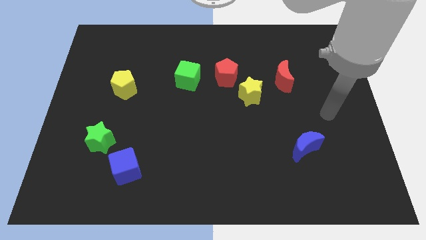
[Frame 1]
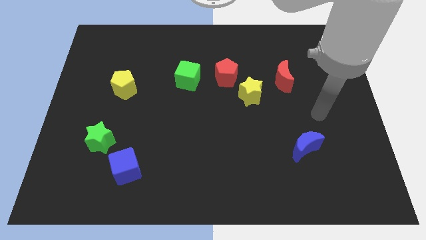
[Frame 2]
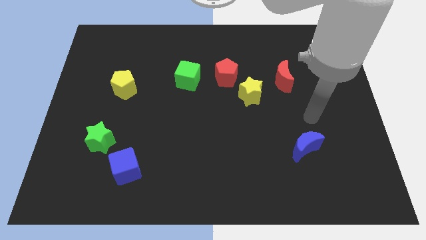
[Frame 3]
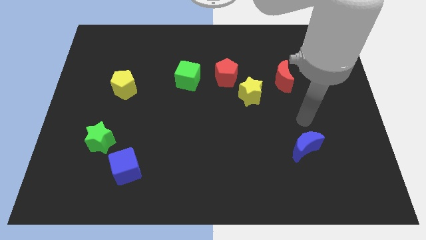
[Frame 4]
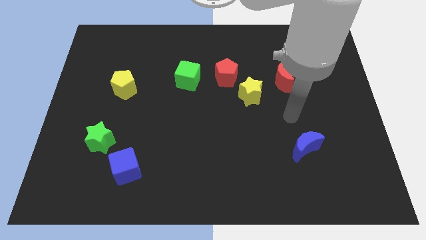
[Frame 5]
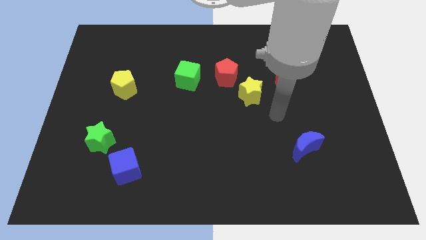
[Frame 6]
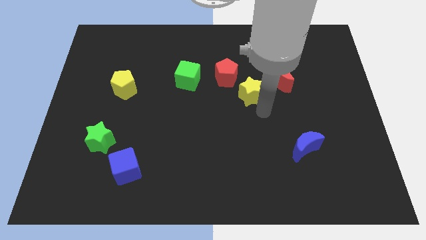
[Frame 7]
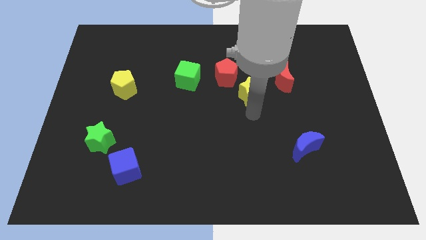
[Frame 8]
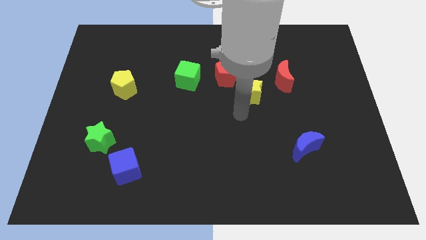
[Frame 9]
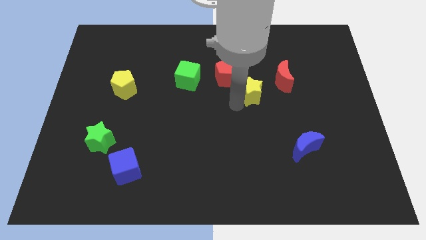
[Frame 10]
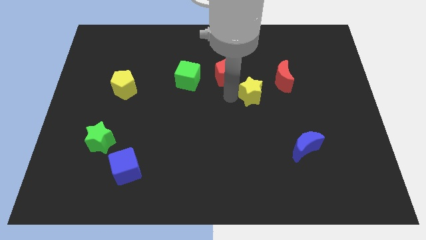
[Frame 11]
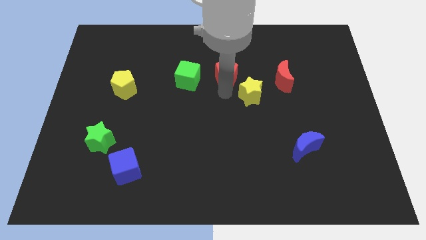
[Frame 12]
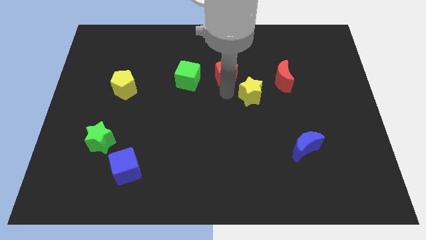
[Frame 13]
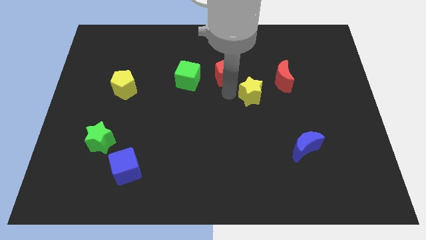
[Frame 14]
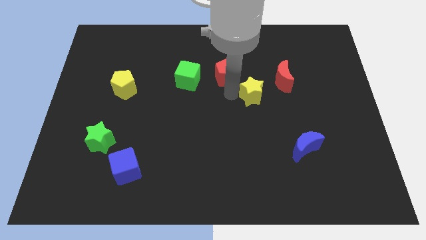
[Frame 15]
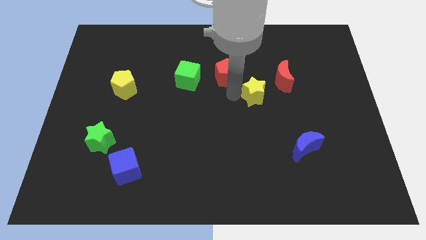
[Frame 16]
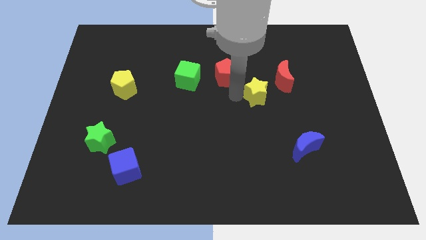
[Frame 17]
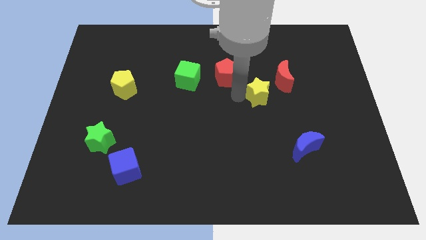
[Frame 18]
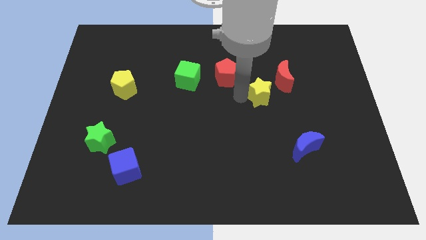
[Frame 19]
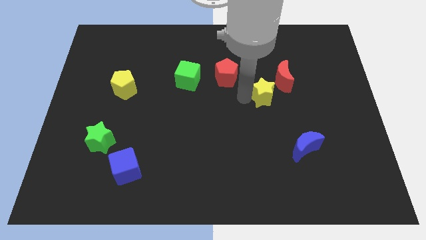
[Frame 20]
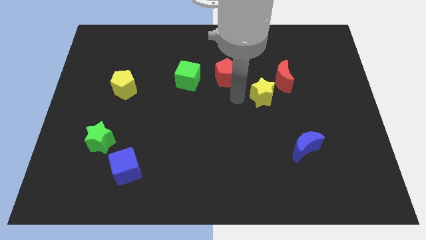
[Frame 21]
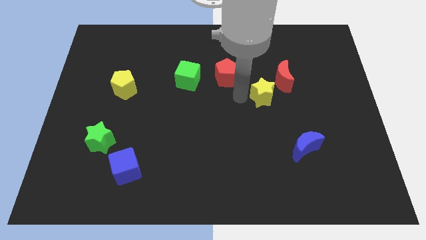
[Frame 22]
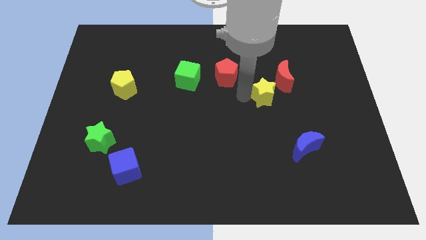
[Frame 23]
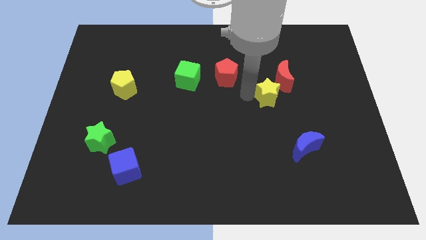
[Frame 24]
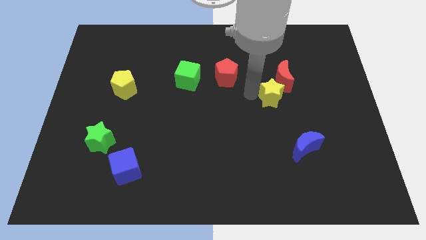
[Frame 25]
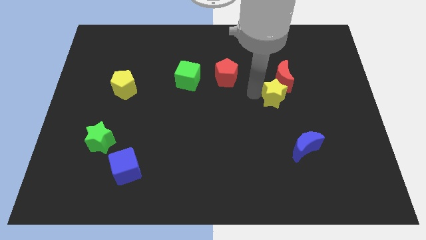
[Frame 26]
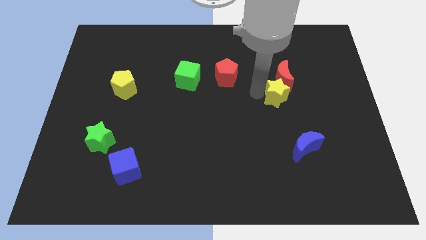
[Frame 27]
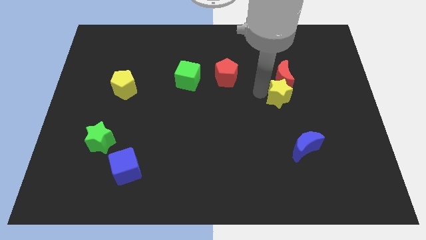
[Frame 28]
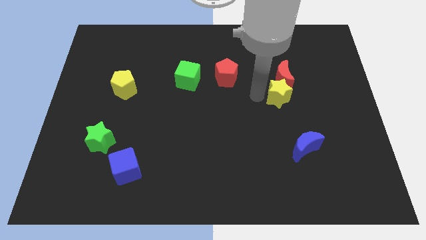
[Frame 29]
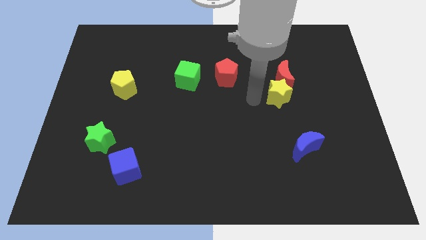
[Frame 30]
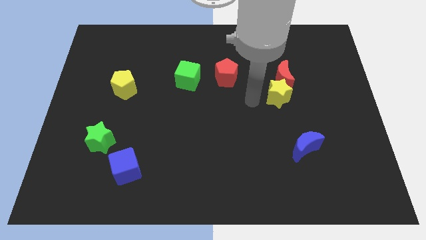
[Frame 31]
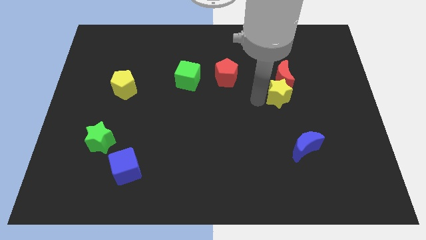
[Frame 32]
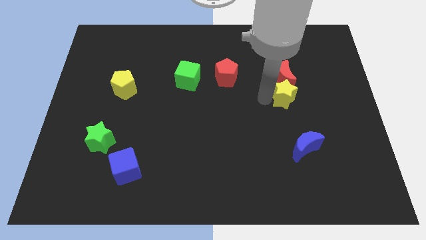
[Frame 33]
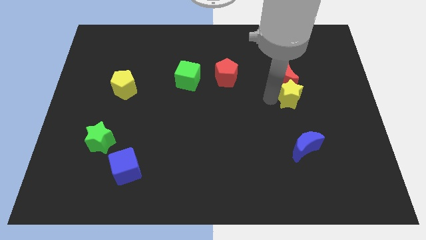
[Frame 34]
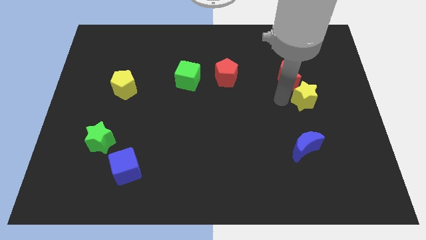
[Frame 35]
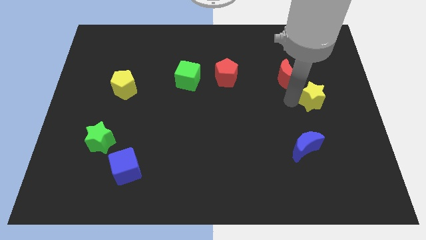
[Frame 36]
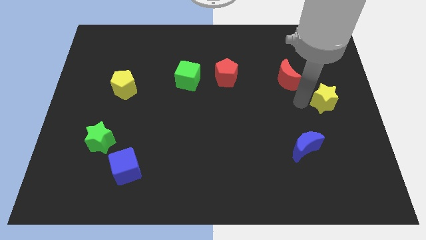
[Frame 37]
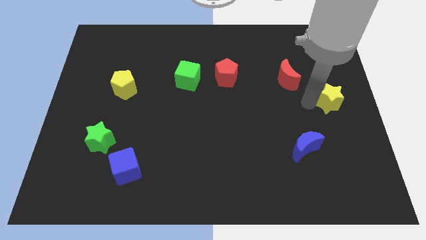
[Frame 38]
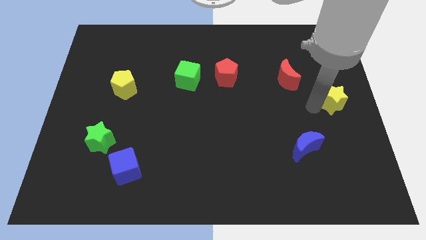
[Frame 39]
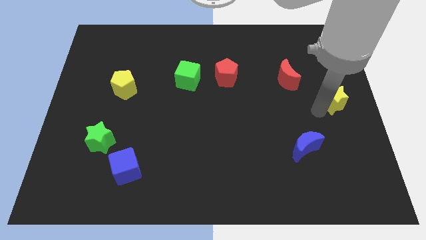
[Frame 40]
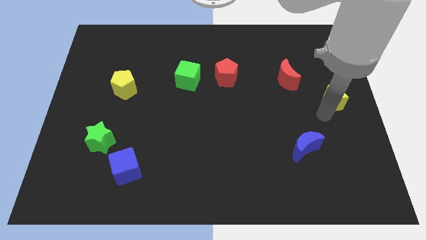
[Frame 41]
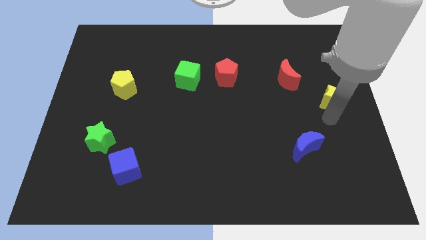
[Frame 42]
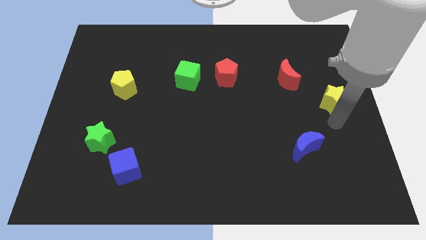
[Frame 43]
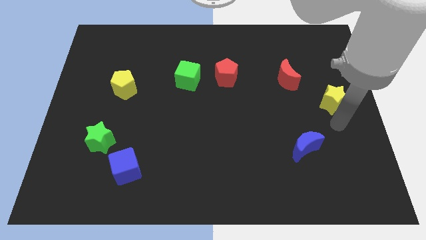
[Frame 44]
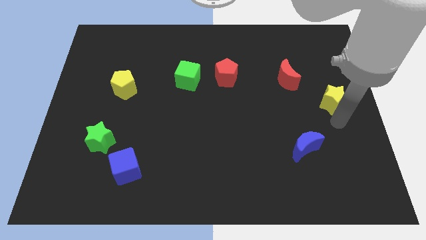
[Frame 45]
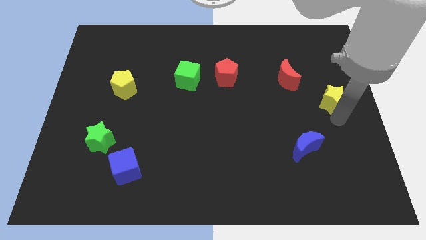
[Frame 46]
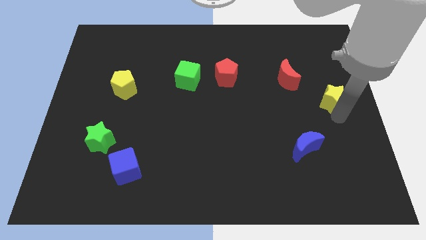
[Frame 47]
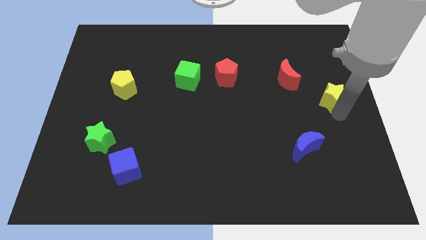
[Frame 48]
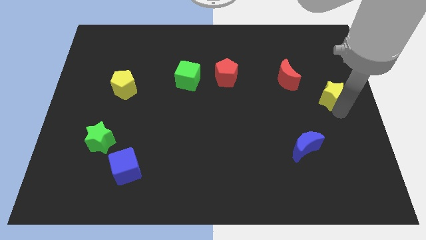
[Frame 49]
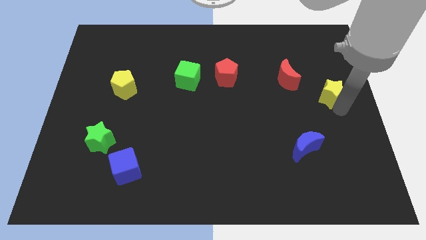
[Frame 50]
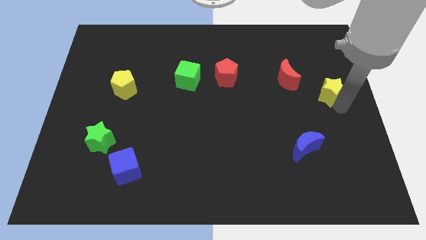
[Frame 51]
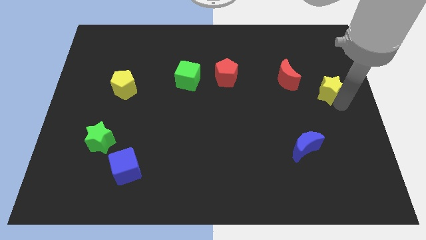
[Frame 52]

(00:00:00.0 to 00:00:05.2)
slide the yellow star right of the red moon

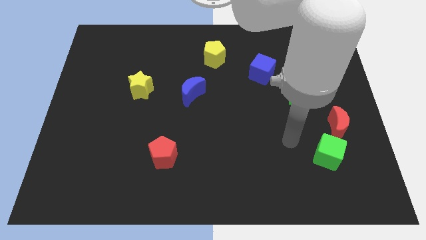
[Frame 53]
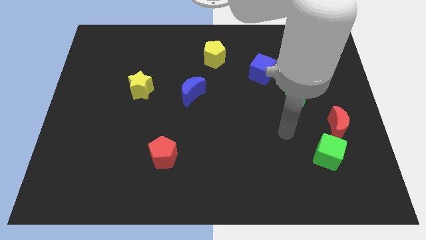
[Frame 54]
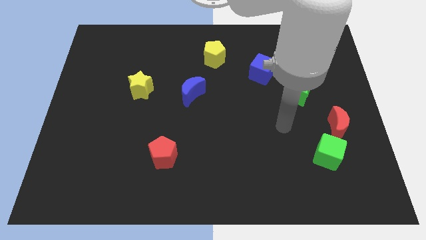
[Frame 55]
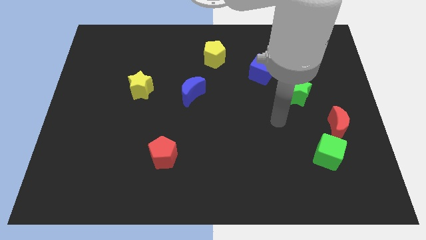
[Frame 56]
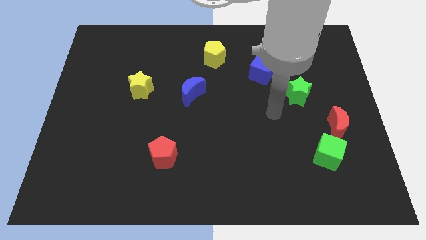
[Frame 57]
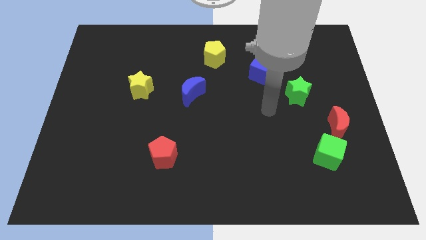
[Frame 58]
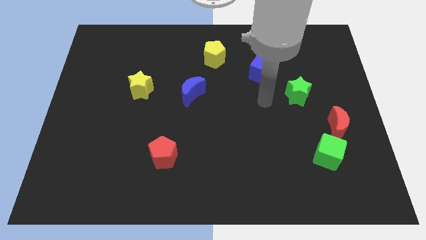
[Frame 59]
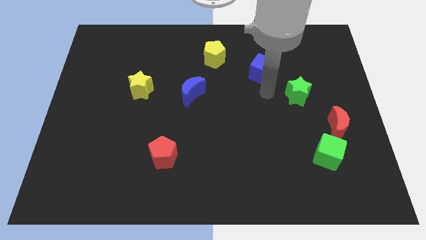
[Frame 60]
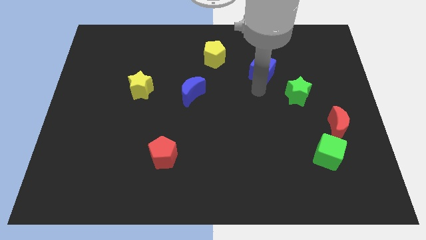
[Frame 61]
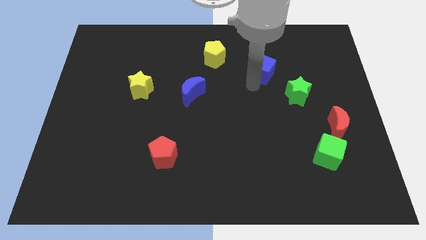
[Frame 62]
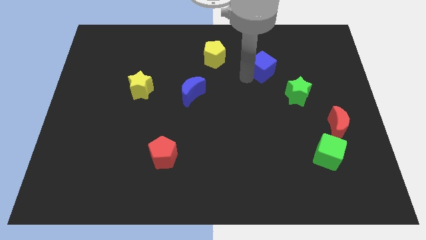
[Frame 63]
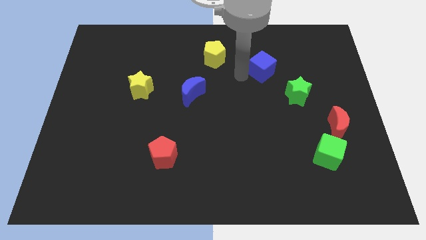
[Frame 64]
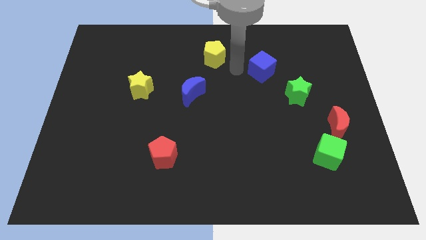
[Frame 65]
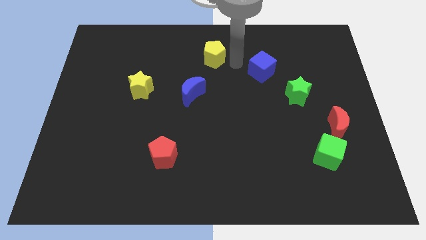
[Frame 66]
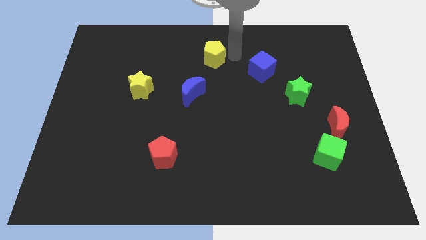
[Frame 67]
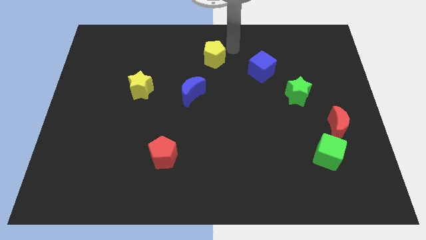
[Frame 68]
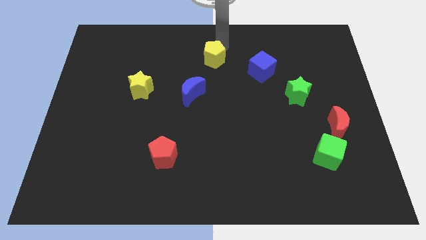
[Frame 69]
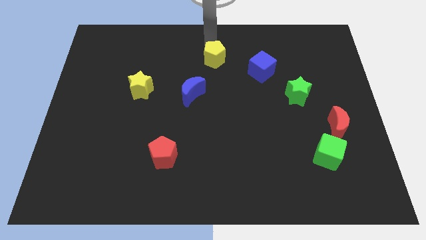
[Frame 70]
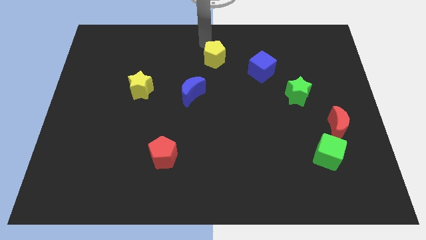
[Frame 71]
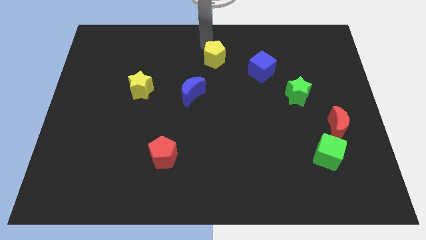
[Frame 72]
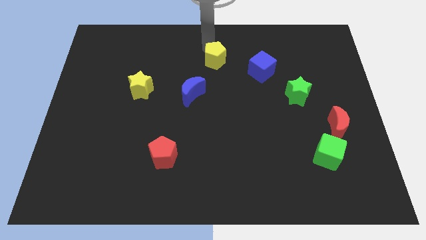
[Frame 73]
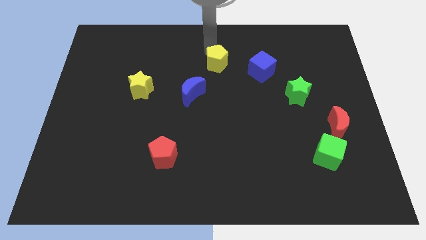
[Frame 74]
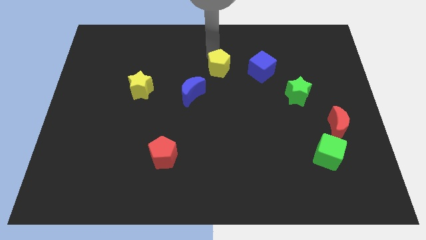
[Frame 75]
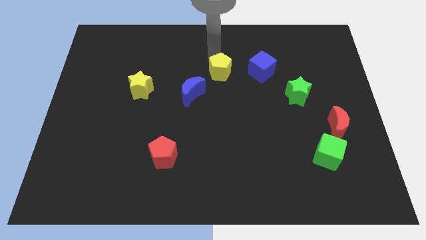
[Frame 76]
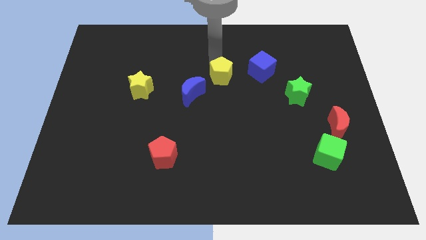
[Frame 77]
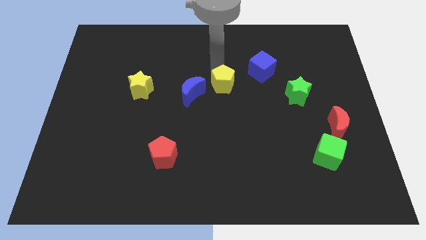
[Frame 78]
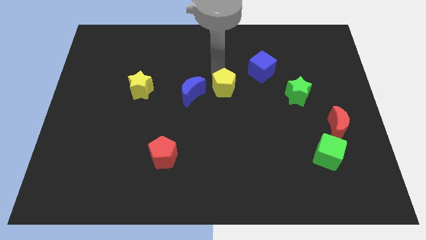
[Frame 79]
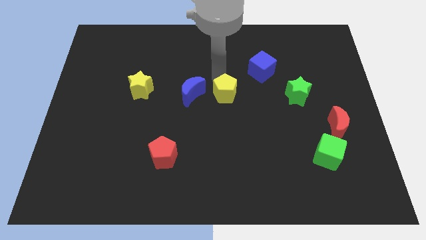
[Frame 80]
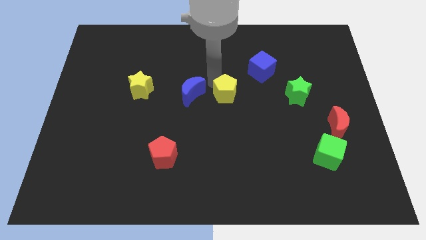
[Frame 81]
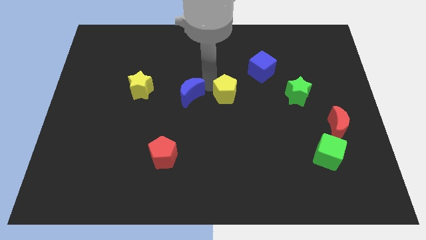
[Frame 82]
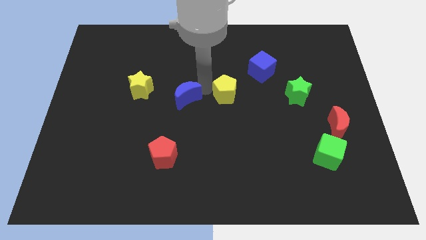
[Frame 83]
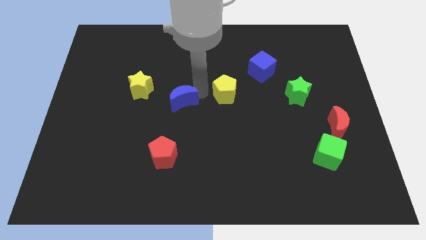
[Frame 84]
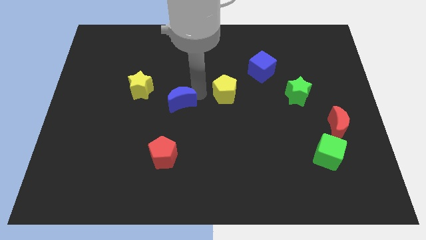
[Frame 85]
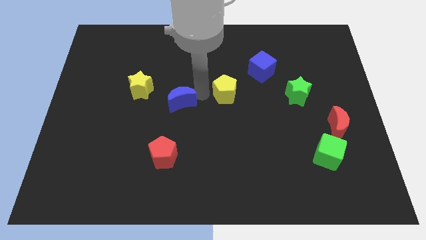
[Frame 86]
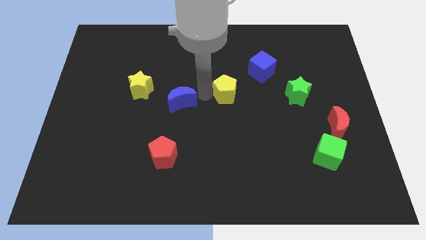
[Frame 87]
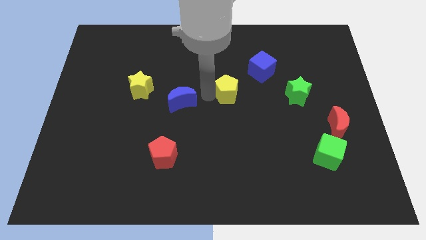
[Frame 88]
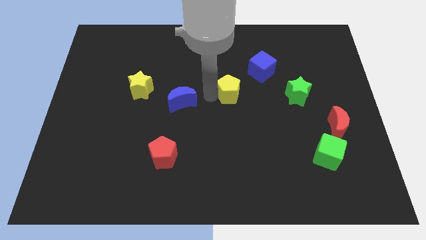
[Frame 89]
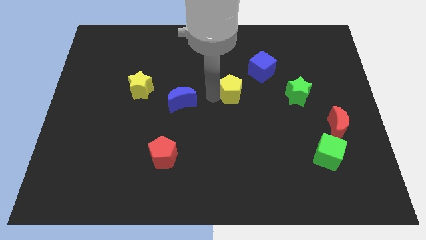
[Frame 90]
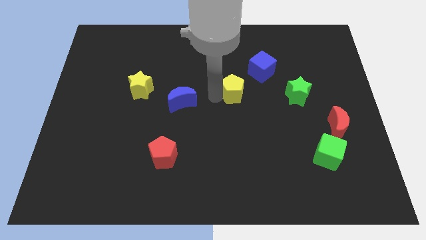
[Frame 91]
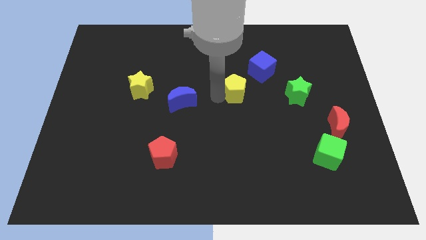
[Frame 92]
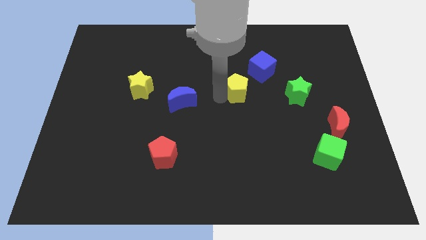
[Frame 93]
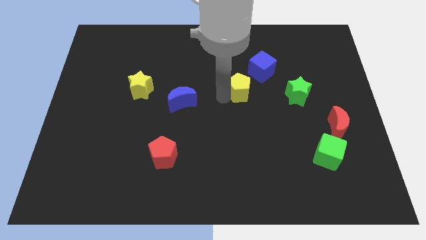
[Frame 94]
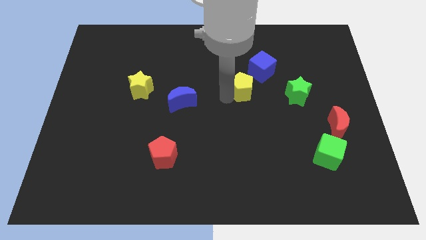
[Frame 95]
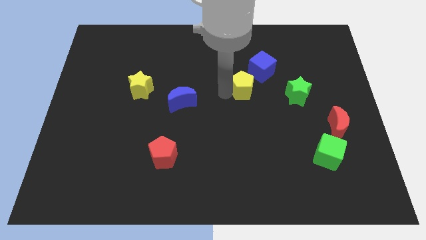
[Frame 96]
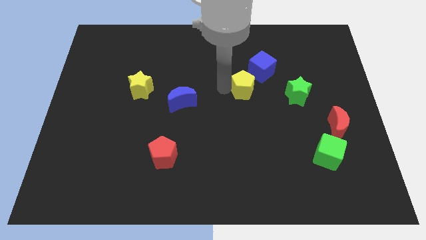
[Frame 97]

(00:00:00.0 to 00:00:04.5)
slide the yellow pentagon to the bottom side of the blue cube
